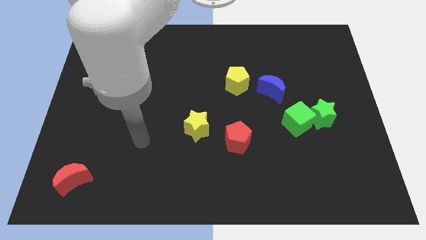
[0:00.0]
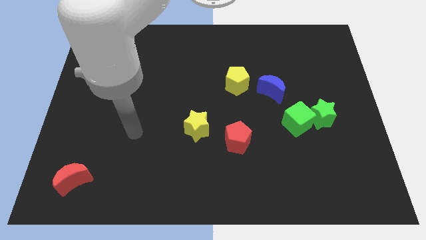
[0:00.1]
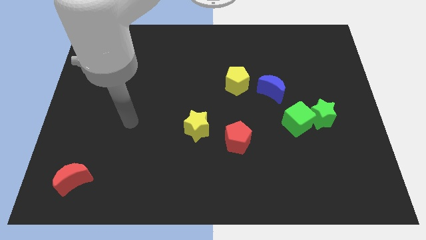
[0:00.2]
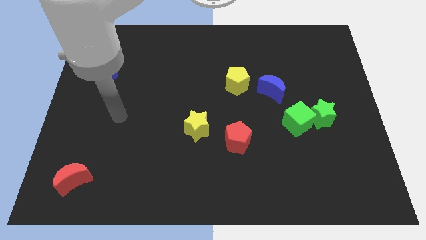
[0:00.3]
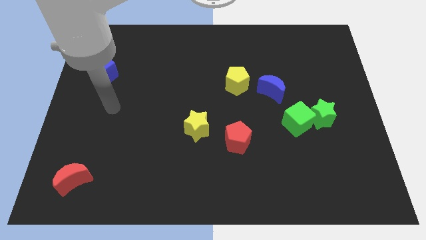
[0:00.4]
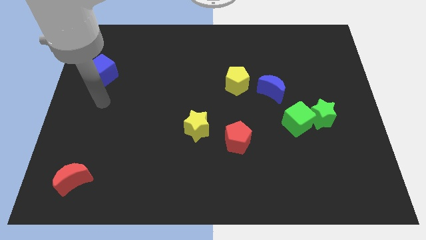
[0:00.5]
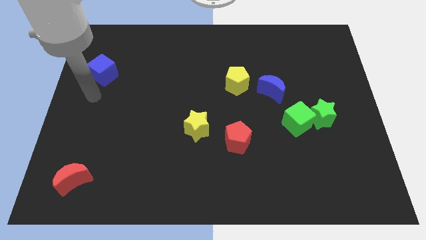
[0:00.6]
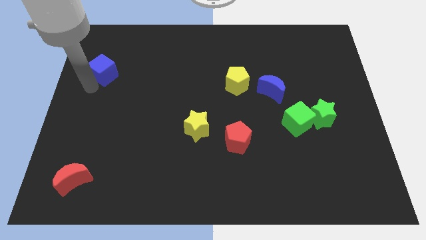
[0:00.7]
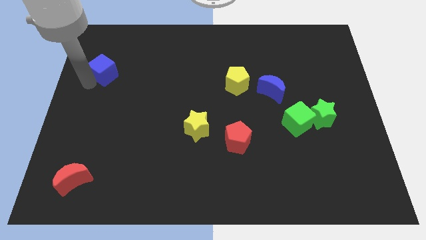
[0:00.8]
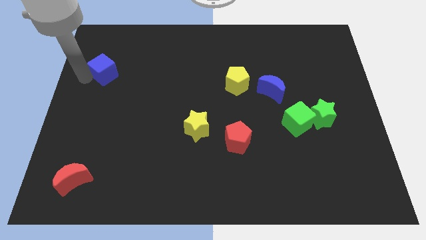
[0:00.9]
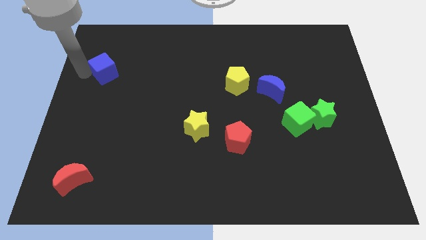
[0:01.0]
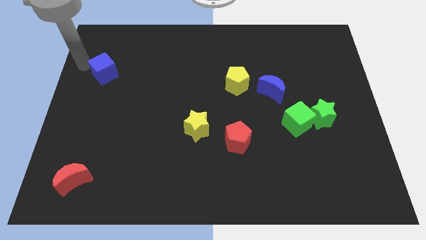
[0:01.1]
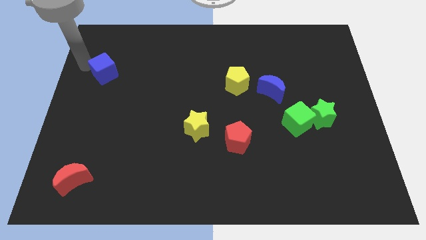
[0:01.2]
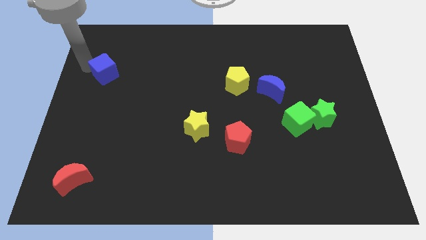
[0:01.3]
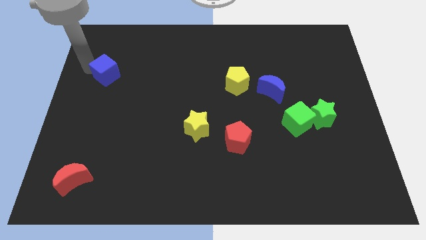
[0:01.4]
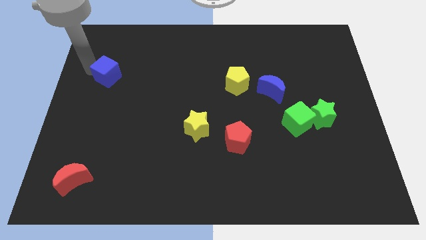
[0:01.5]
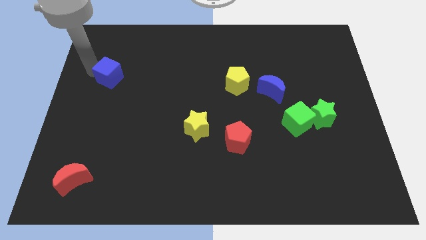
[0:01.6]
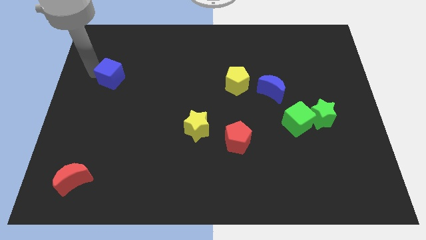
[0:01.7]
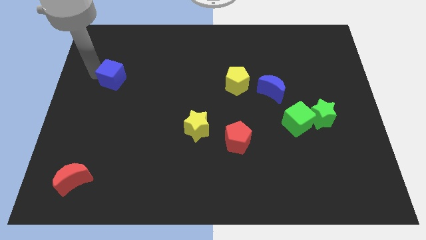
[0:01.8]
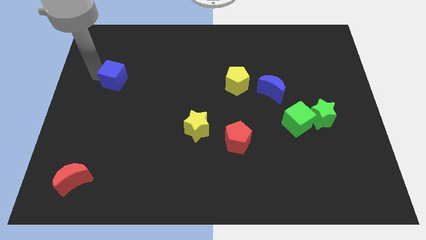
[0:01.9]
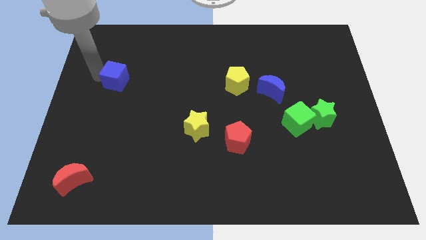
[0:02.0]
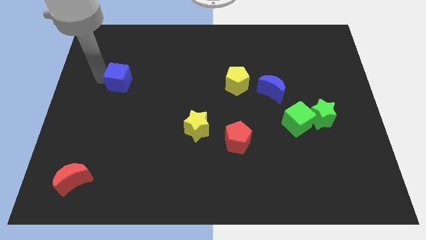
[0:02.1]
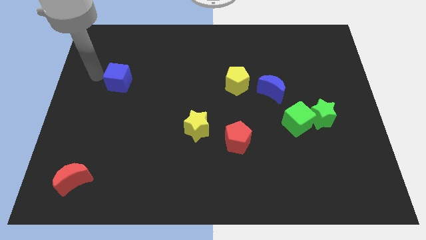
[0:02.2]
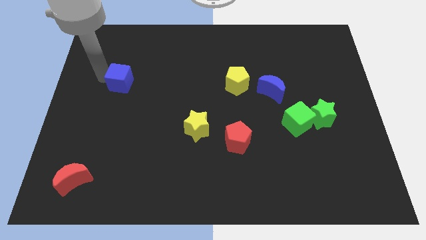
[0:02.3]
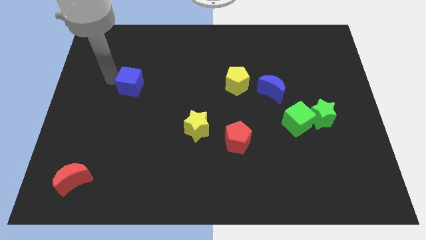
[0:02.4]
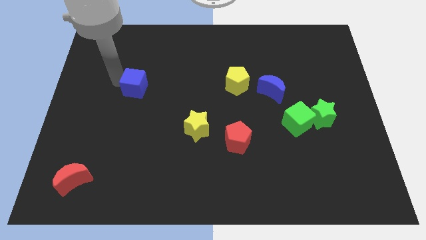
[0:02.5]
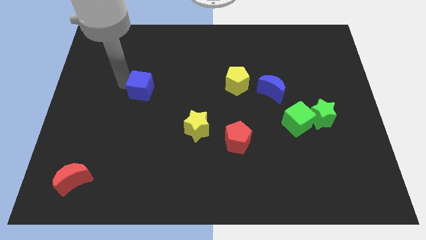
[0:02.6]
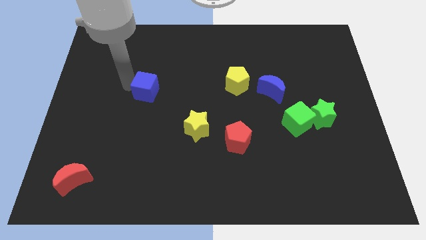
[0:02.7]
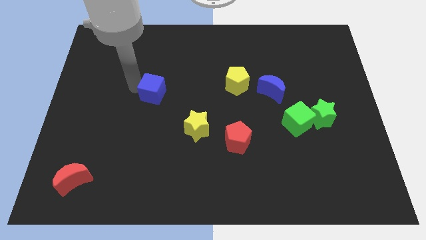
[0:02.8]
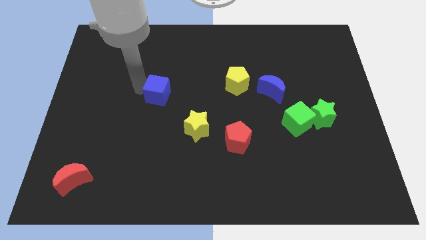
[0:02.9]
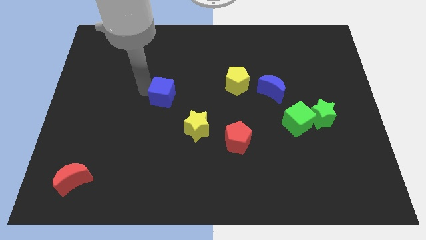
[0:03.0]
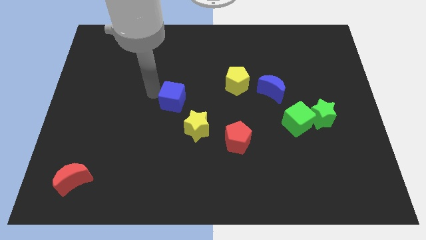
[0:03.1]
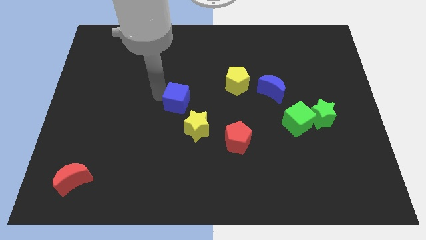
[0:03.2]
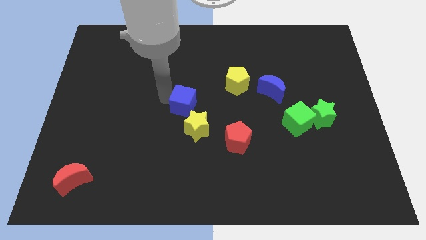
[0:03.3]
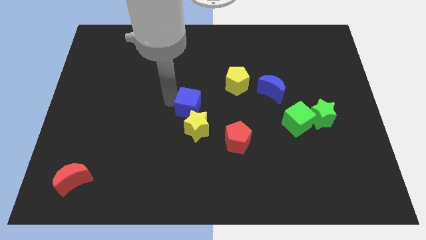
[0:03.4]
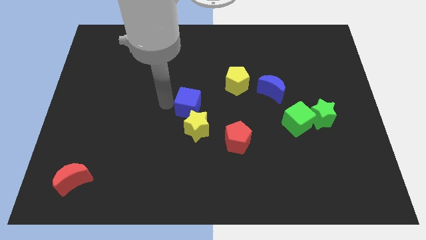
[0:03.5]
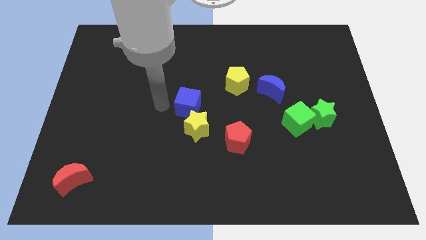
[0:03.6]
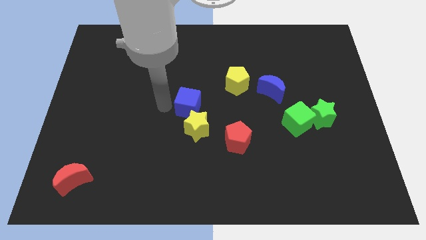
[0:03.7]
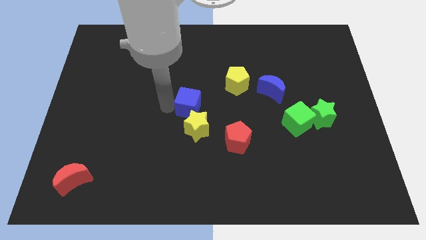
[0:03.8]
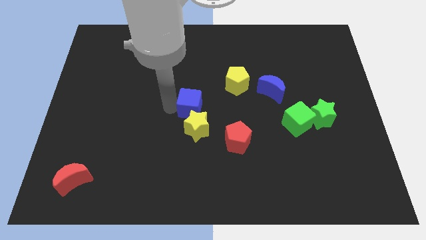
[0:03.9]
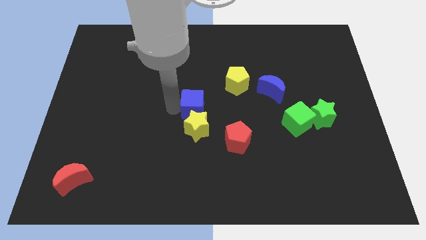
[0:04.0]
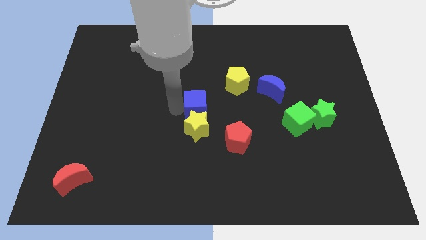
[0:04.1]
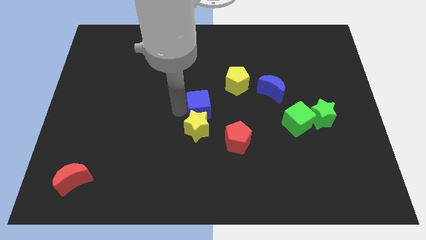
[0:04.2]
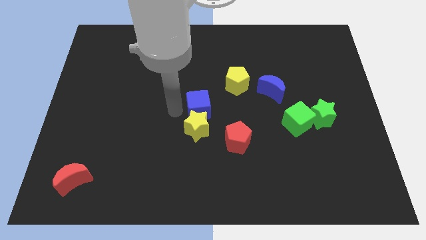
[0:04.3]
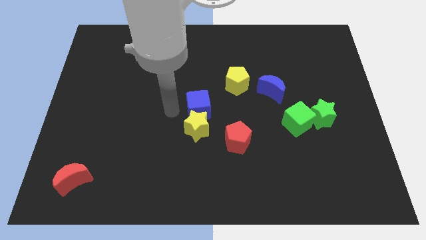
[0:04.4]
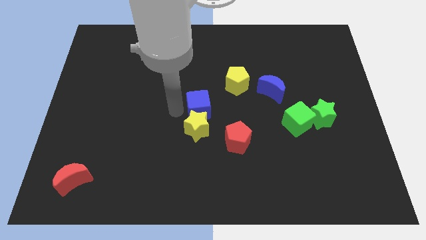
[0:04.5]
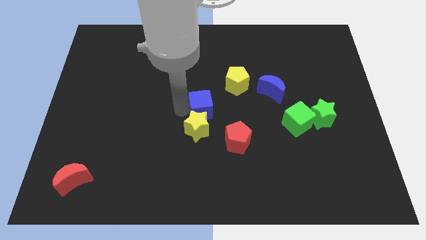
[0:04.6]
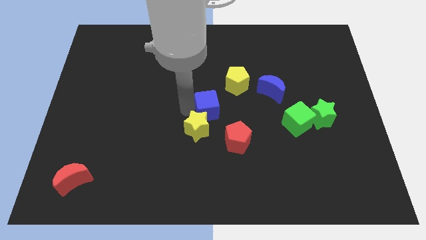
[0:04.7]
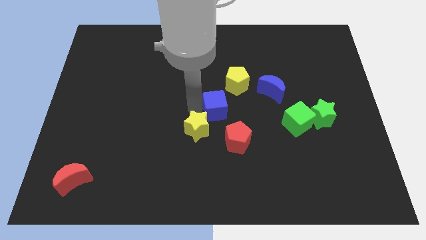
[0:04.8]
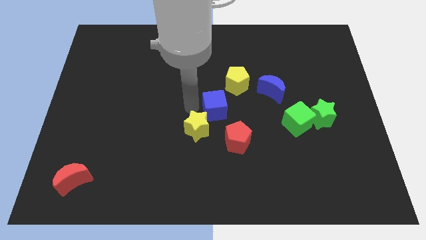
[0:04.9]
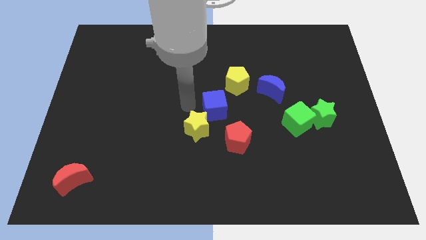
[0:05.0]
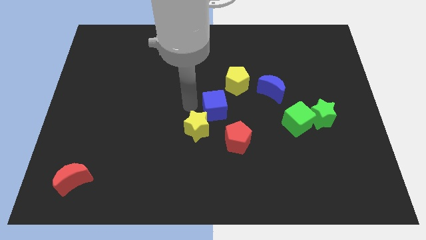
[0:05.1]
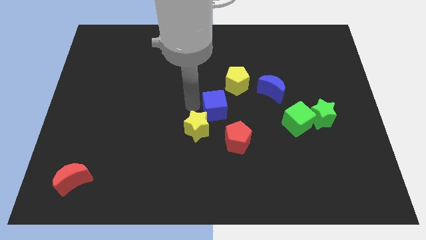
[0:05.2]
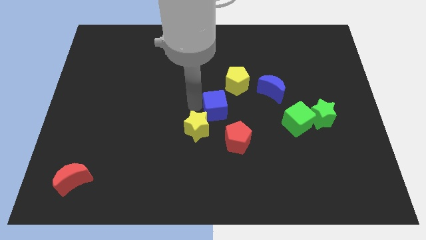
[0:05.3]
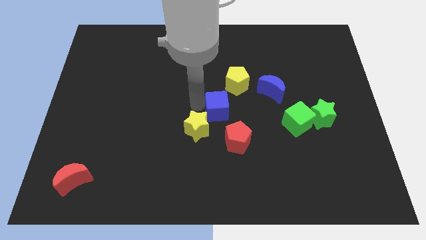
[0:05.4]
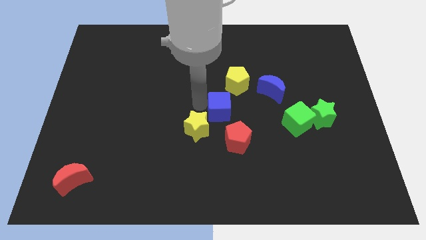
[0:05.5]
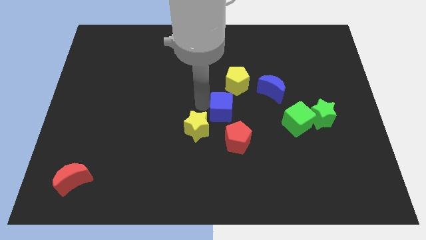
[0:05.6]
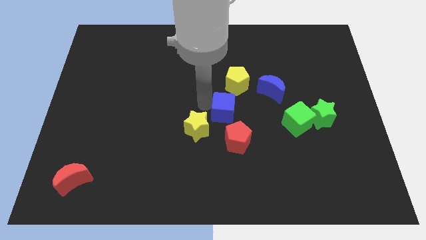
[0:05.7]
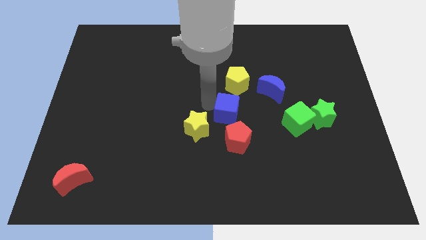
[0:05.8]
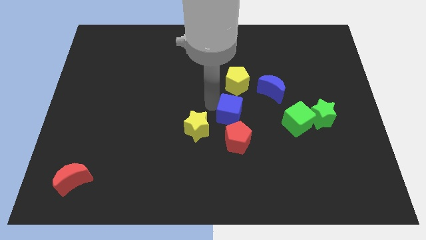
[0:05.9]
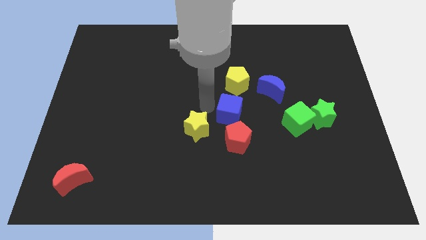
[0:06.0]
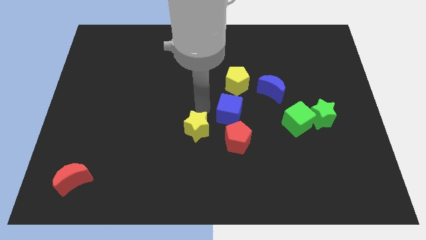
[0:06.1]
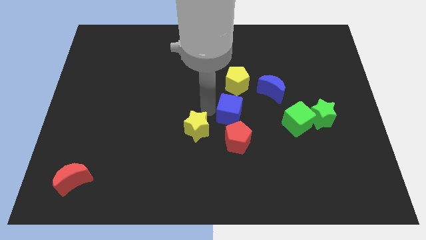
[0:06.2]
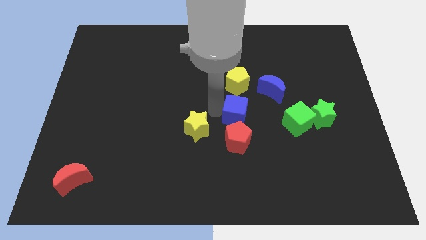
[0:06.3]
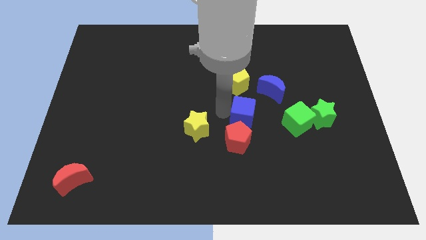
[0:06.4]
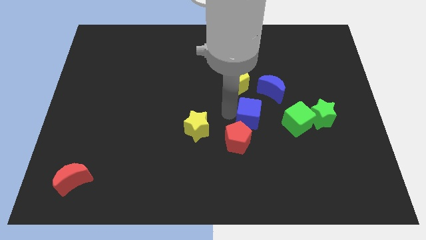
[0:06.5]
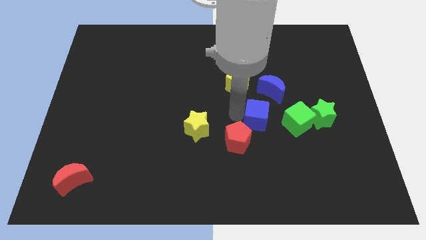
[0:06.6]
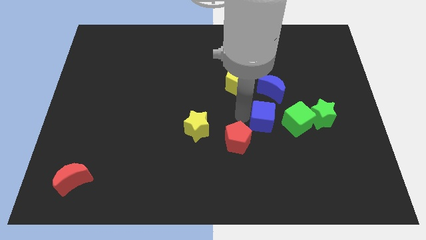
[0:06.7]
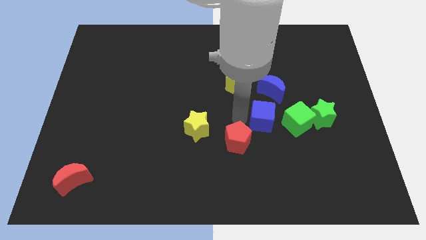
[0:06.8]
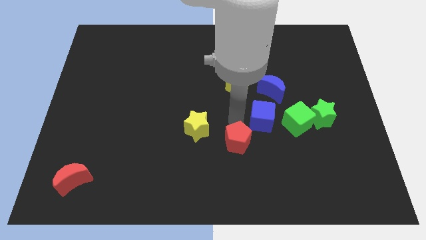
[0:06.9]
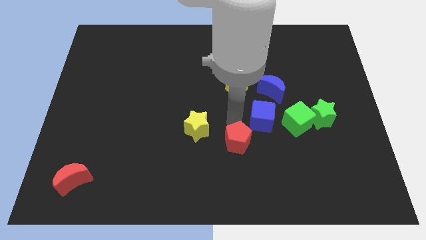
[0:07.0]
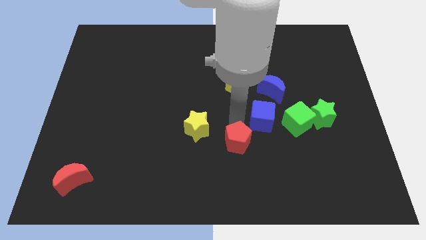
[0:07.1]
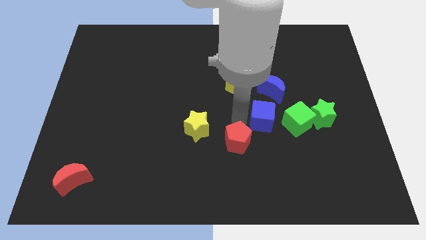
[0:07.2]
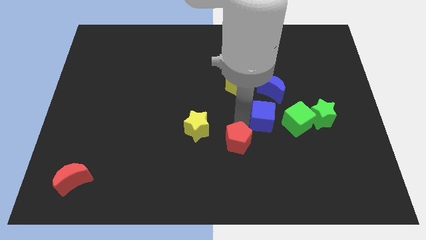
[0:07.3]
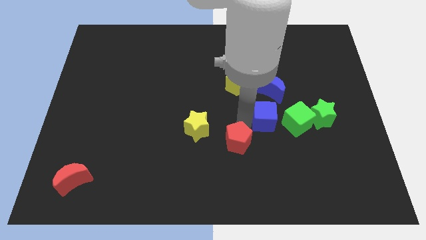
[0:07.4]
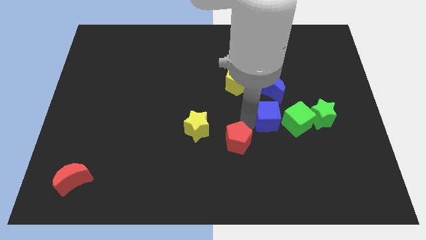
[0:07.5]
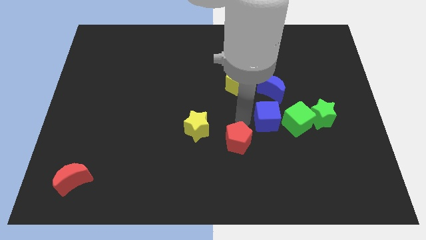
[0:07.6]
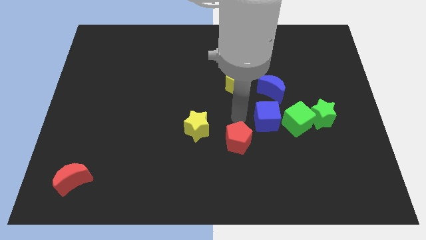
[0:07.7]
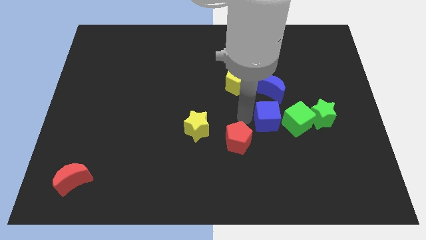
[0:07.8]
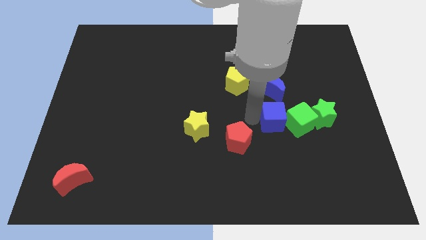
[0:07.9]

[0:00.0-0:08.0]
push the blue cube to the green cube
